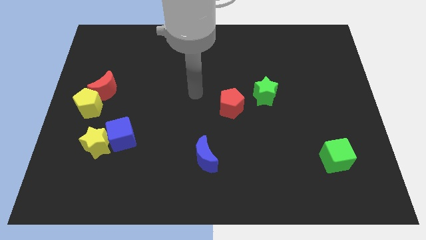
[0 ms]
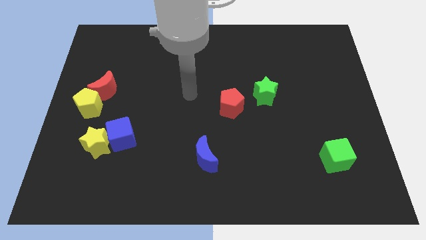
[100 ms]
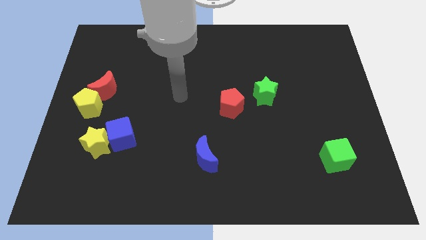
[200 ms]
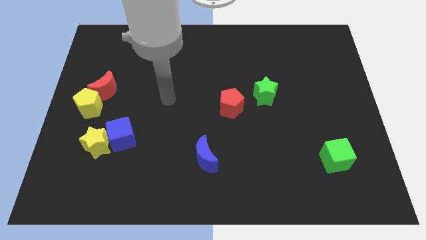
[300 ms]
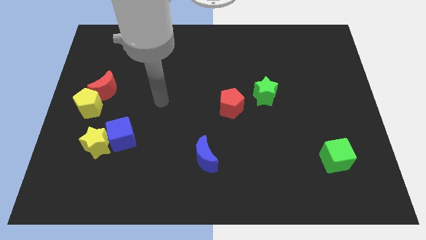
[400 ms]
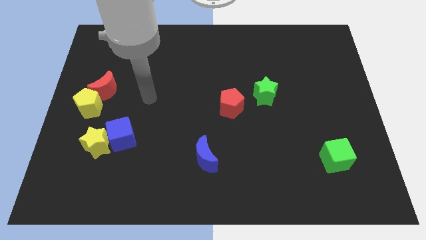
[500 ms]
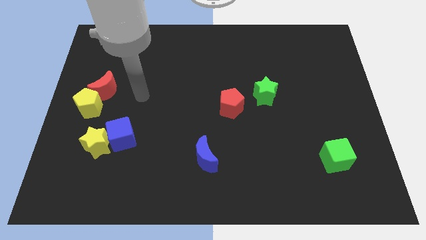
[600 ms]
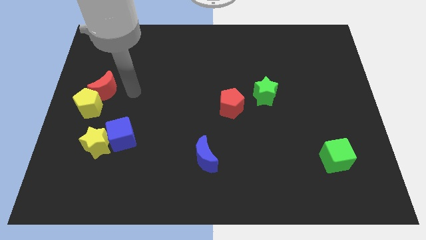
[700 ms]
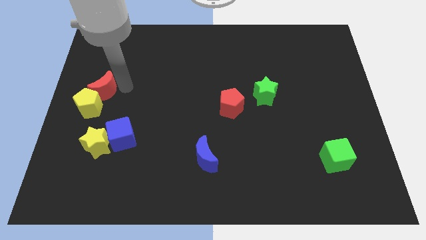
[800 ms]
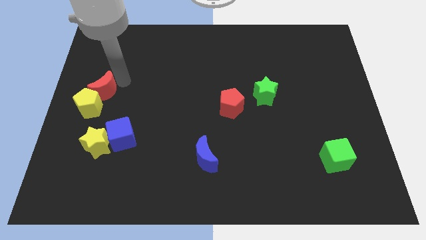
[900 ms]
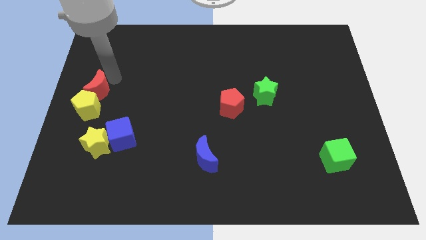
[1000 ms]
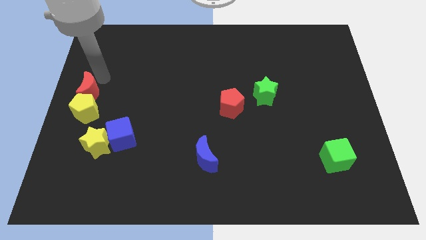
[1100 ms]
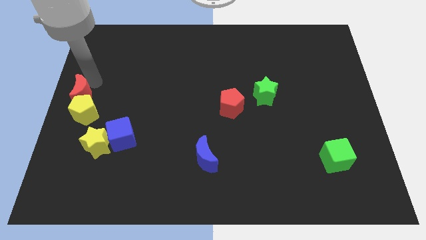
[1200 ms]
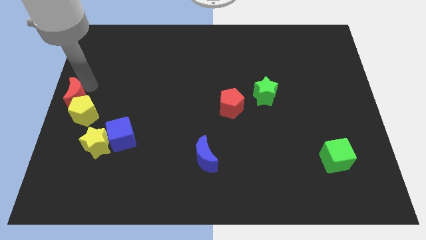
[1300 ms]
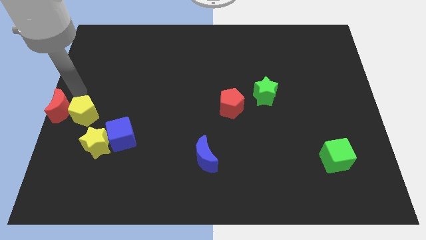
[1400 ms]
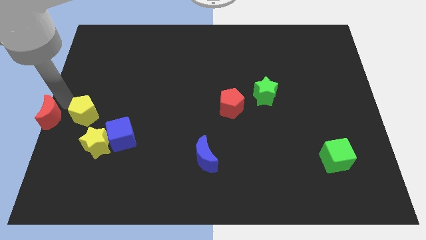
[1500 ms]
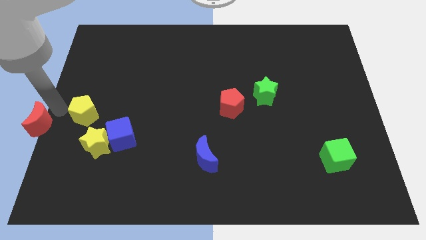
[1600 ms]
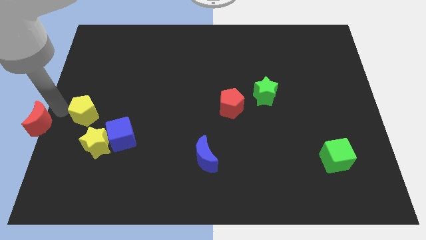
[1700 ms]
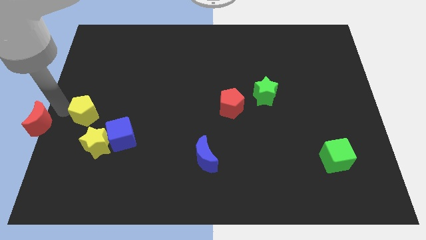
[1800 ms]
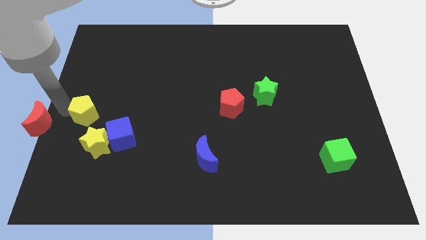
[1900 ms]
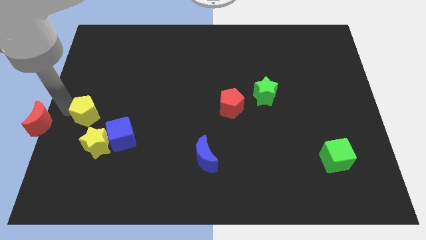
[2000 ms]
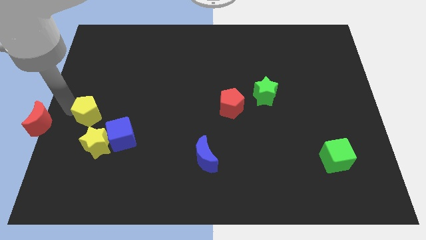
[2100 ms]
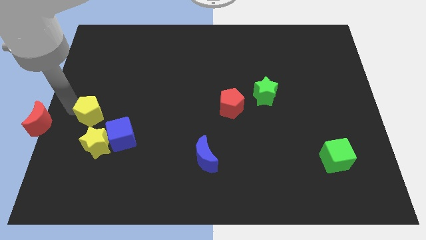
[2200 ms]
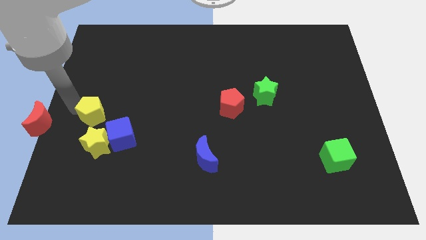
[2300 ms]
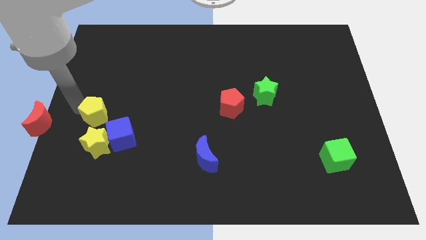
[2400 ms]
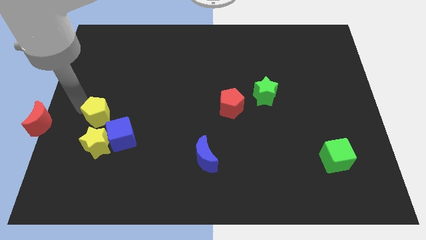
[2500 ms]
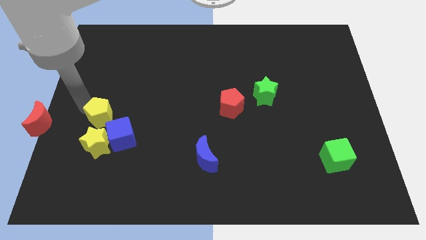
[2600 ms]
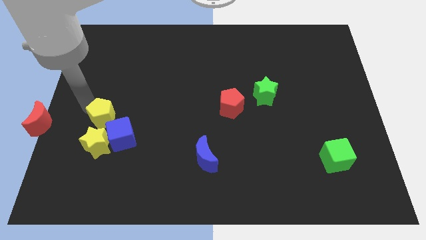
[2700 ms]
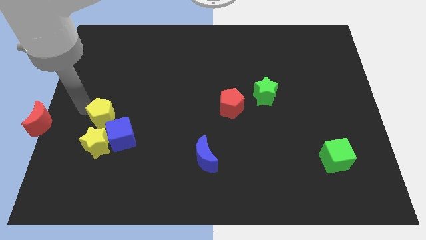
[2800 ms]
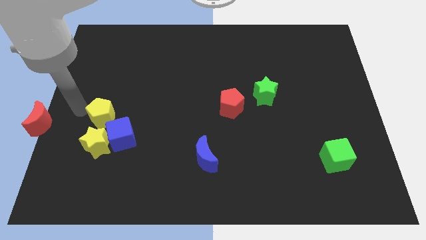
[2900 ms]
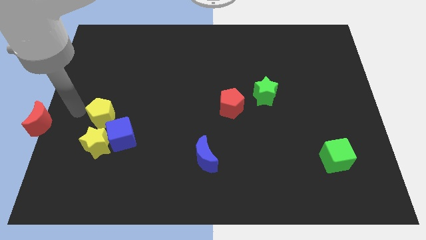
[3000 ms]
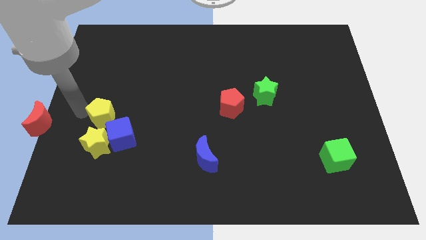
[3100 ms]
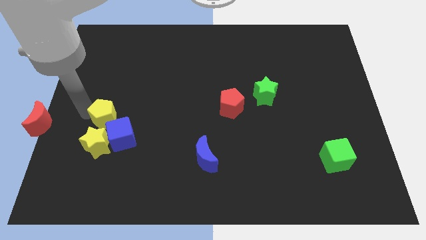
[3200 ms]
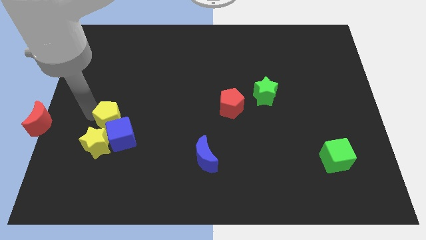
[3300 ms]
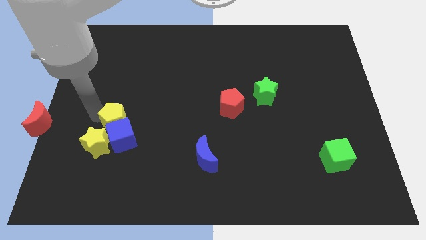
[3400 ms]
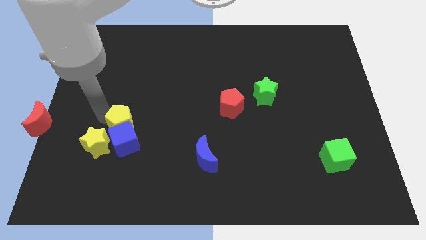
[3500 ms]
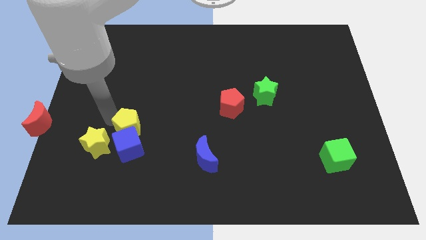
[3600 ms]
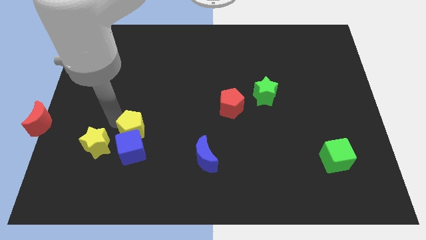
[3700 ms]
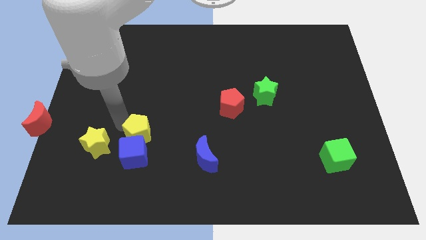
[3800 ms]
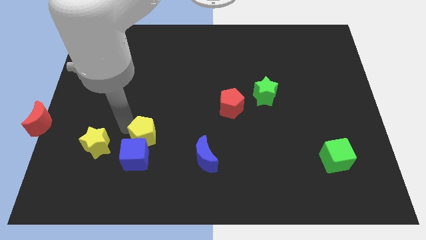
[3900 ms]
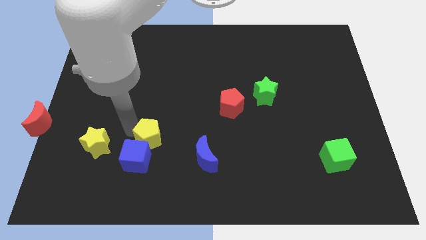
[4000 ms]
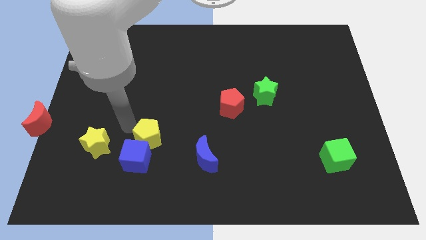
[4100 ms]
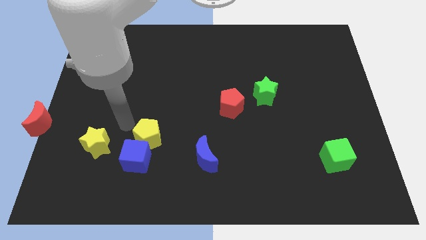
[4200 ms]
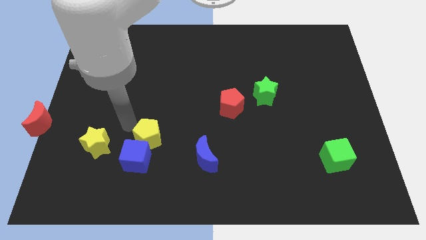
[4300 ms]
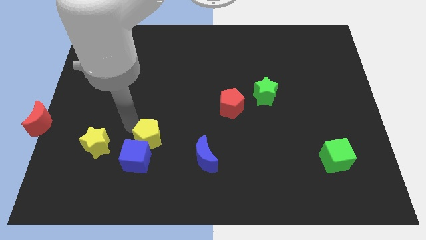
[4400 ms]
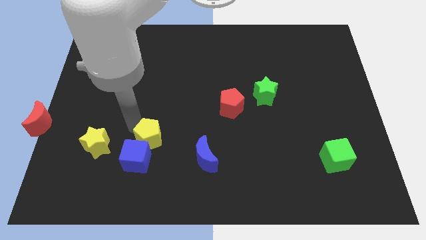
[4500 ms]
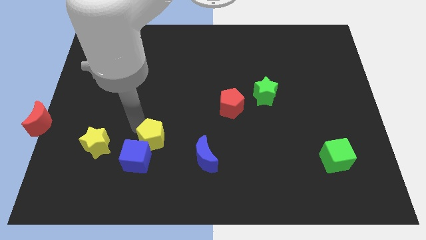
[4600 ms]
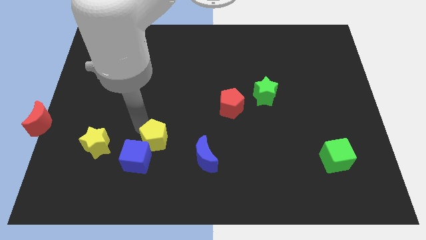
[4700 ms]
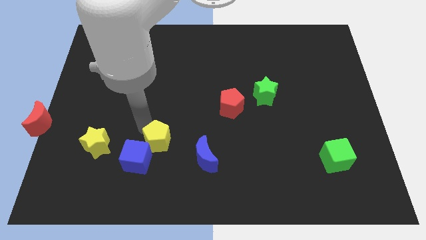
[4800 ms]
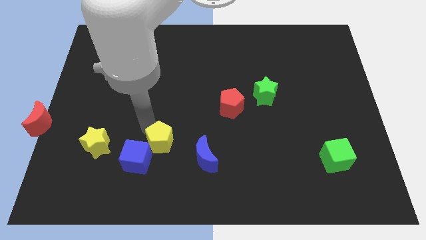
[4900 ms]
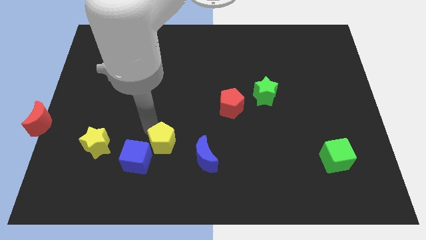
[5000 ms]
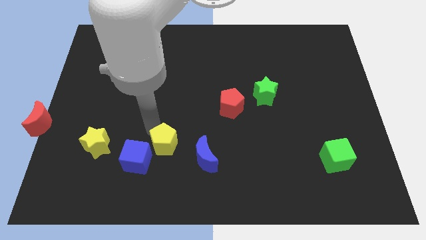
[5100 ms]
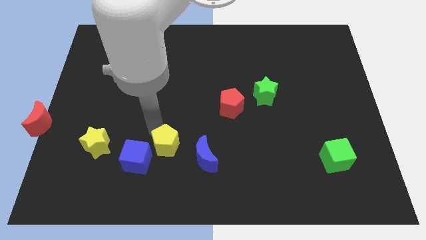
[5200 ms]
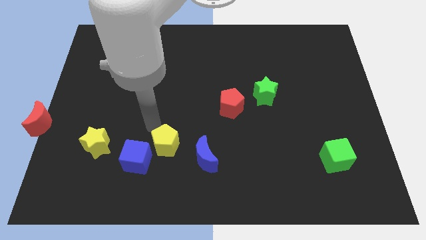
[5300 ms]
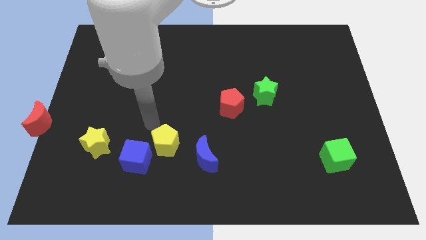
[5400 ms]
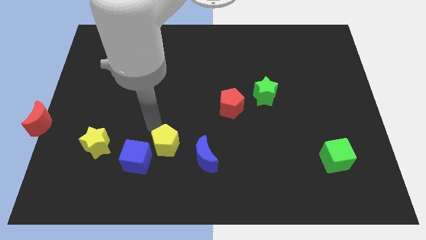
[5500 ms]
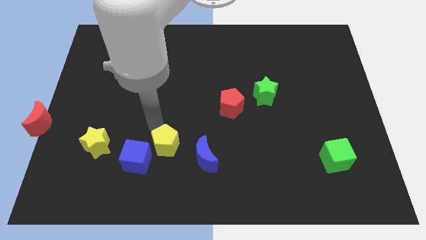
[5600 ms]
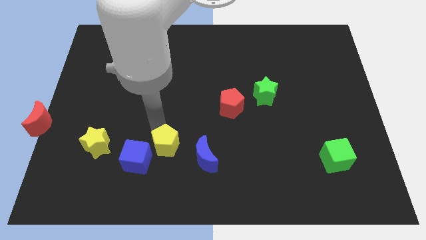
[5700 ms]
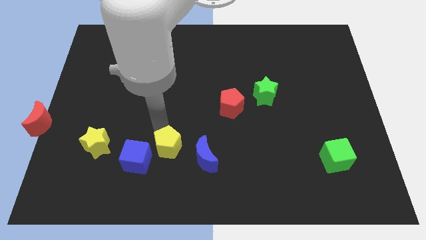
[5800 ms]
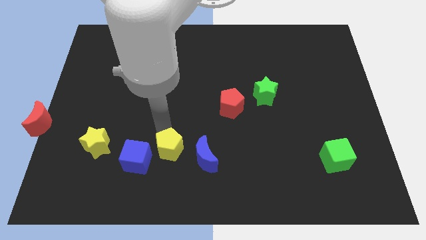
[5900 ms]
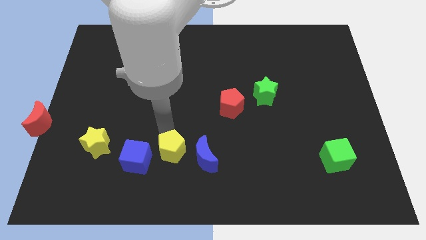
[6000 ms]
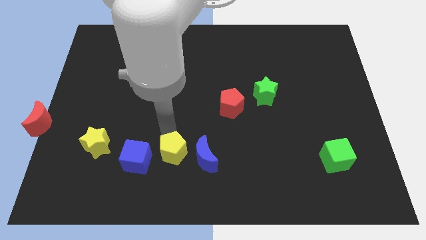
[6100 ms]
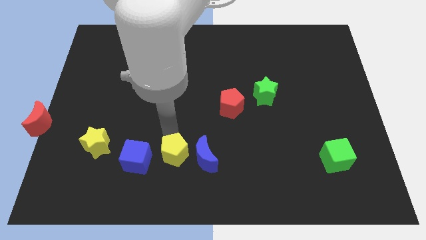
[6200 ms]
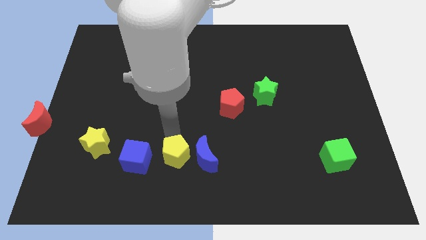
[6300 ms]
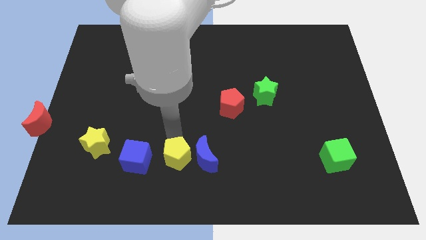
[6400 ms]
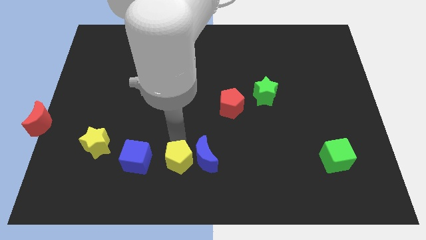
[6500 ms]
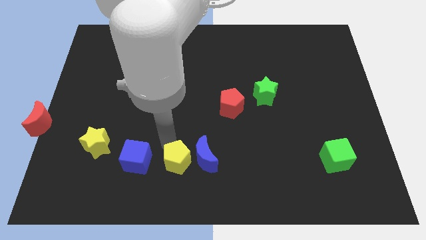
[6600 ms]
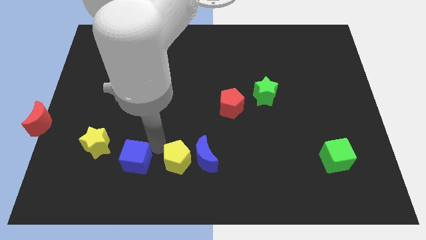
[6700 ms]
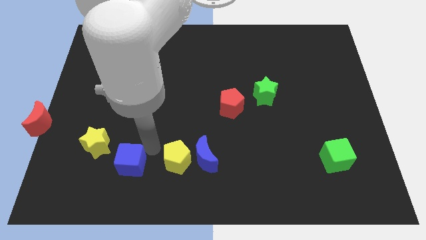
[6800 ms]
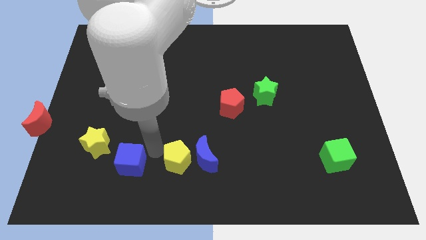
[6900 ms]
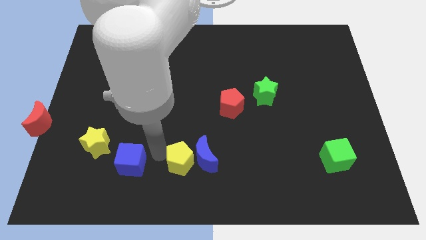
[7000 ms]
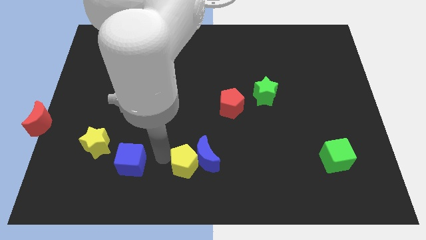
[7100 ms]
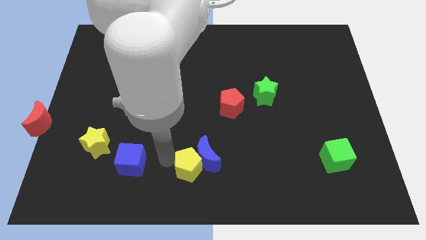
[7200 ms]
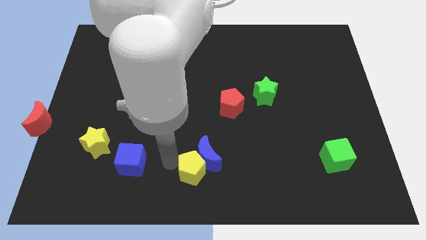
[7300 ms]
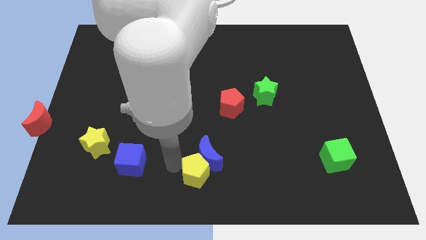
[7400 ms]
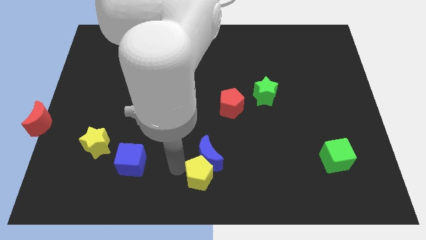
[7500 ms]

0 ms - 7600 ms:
move the yellow pentagon to the bottom right of the blue moon

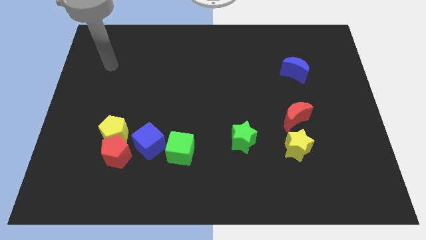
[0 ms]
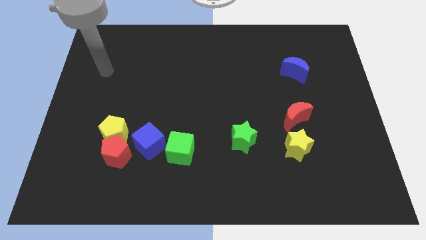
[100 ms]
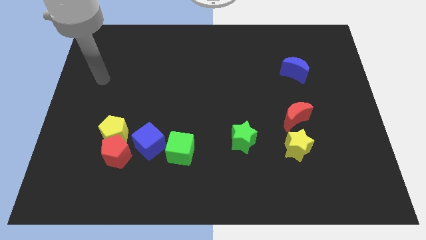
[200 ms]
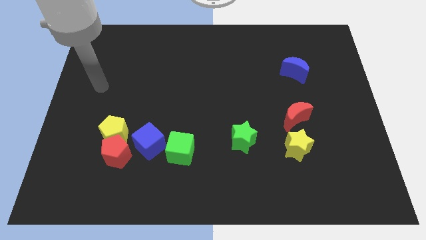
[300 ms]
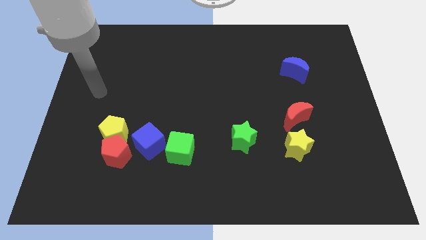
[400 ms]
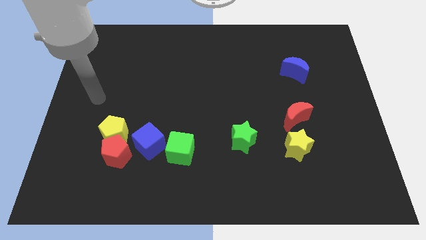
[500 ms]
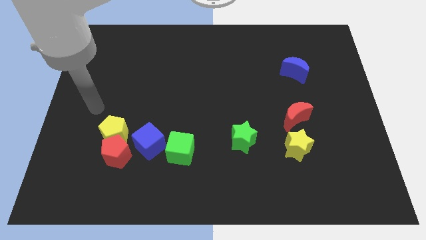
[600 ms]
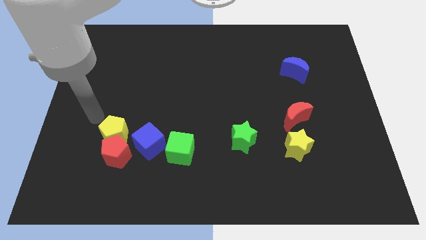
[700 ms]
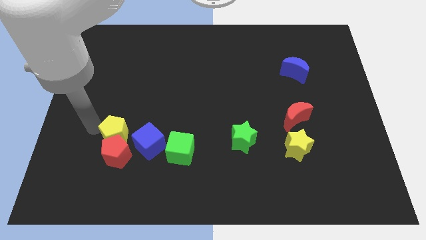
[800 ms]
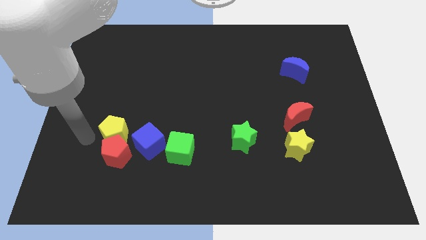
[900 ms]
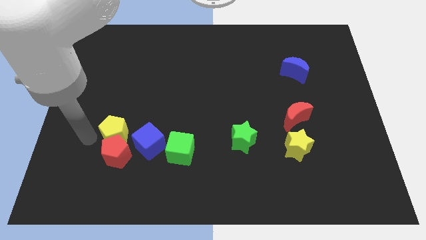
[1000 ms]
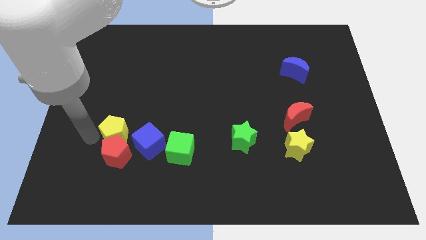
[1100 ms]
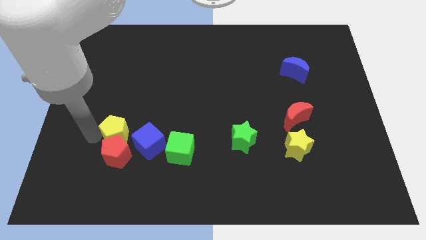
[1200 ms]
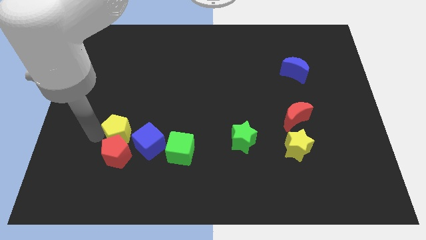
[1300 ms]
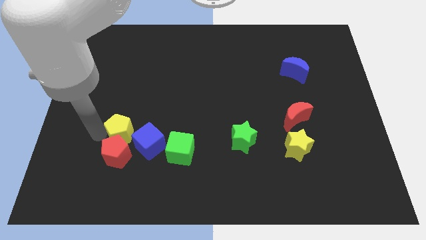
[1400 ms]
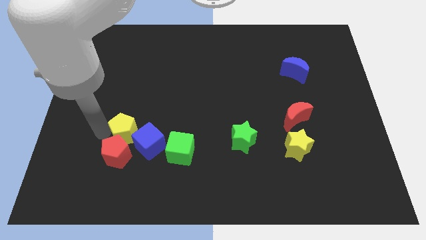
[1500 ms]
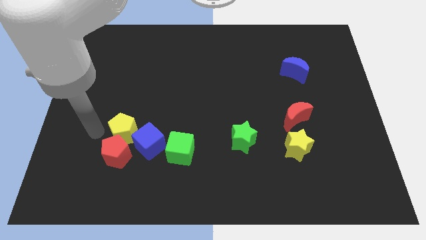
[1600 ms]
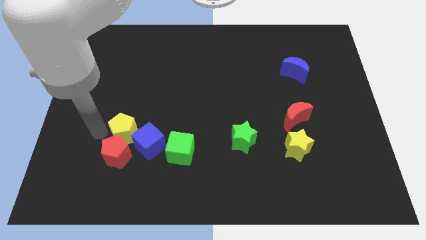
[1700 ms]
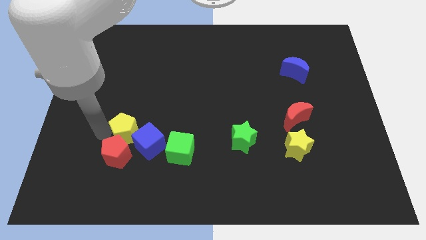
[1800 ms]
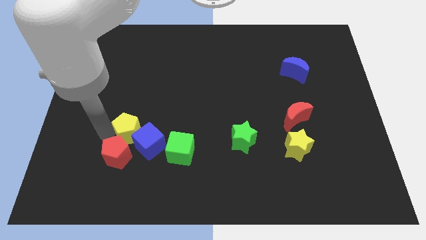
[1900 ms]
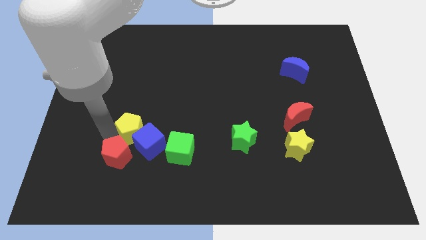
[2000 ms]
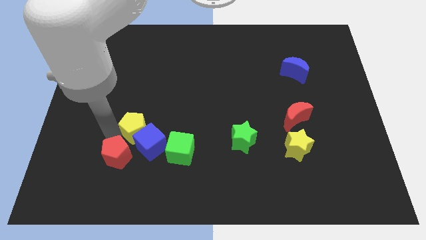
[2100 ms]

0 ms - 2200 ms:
move the yellow pentagon diagonally up and to the left of the green cube
